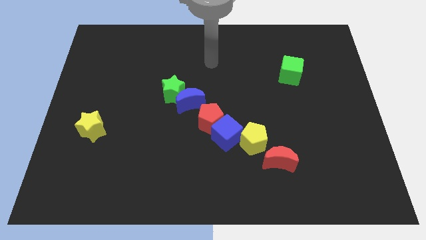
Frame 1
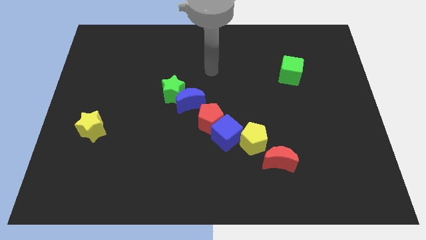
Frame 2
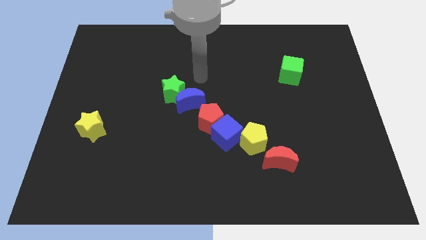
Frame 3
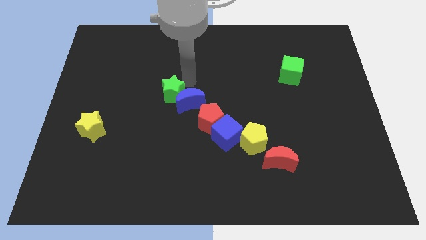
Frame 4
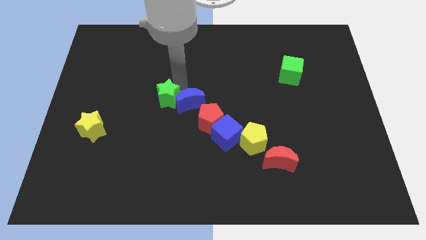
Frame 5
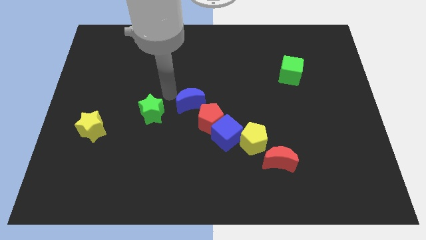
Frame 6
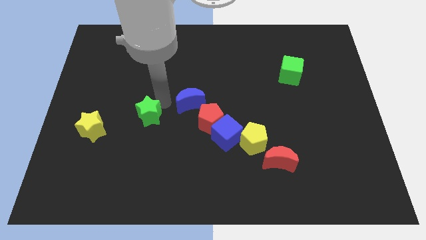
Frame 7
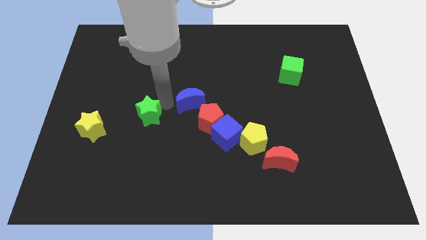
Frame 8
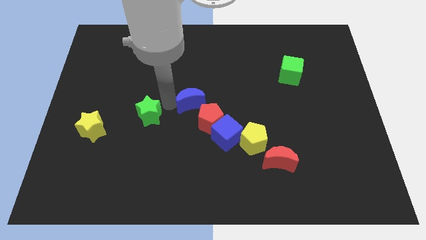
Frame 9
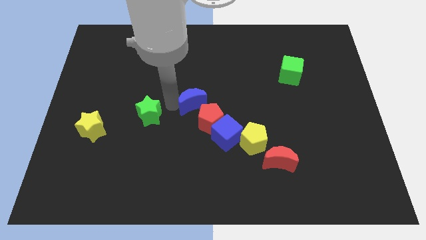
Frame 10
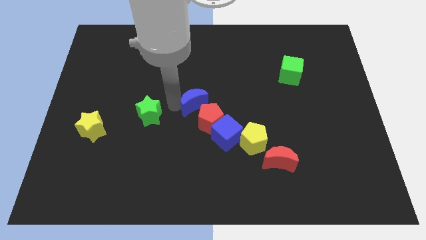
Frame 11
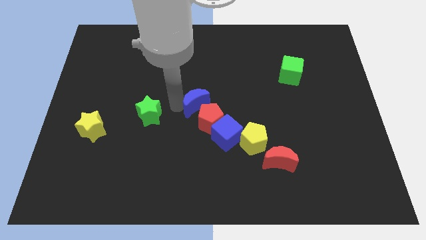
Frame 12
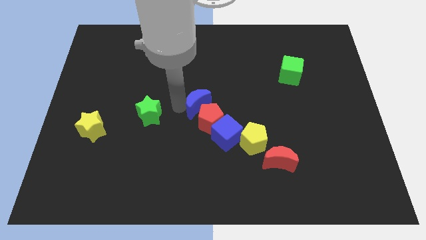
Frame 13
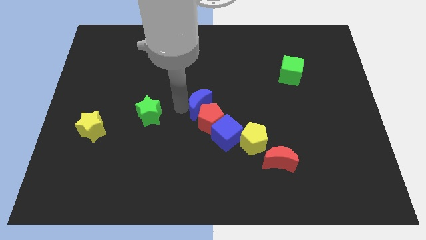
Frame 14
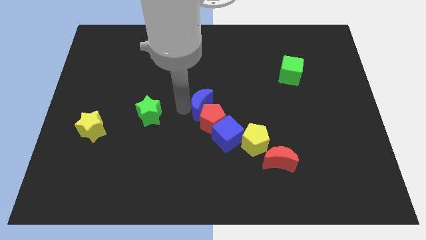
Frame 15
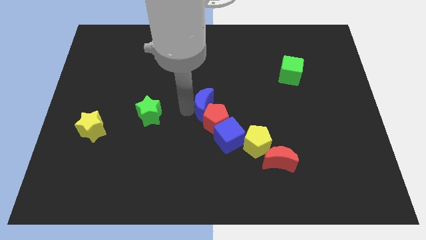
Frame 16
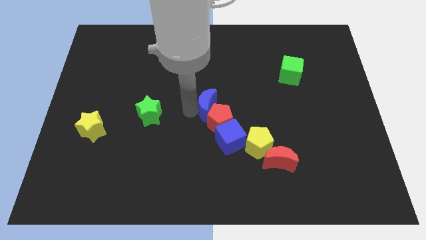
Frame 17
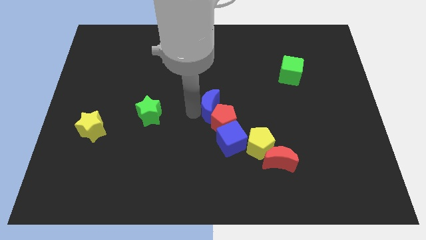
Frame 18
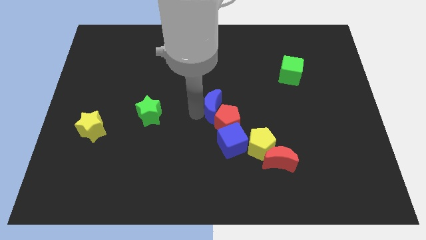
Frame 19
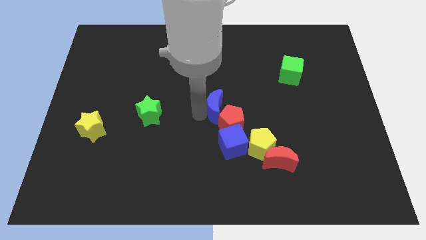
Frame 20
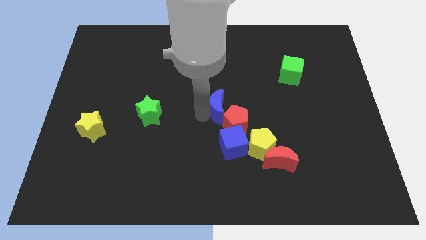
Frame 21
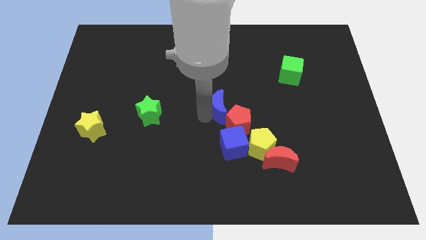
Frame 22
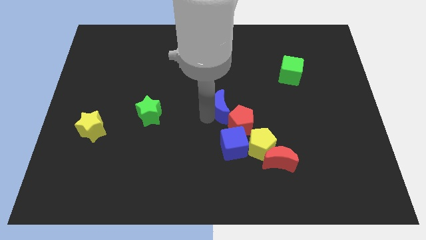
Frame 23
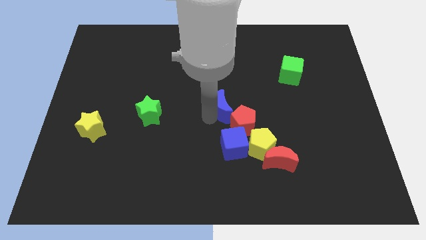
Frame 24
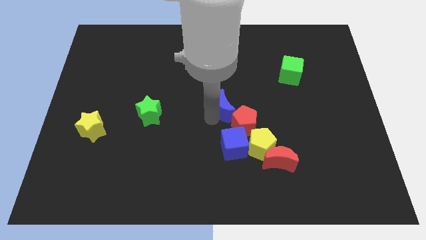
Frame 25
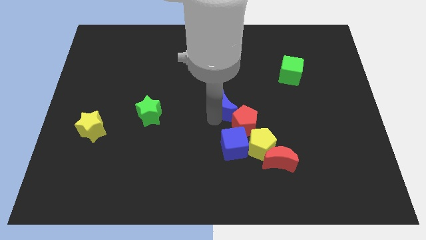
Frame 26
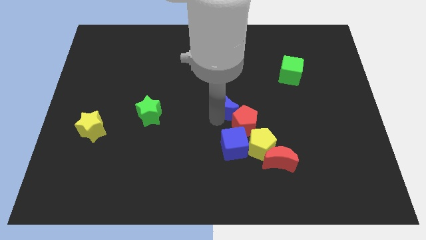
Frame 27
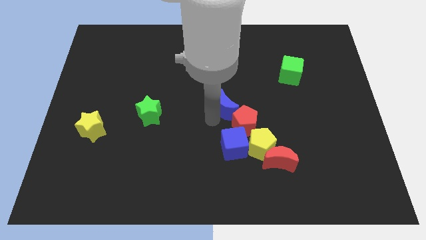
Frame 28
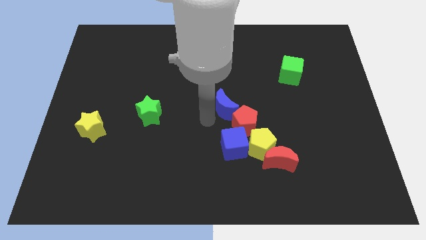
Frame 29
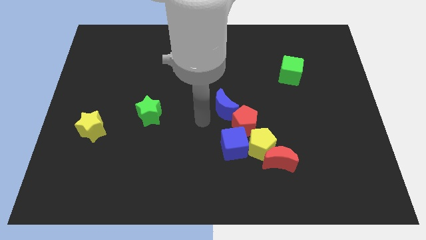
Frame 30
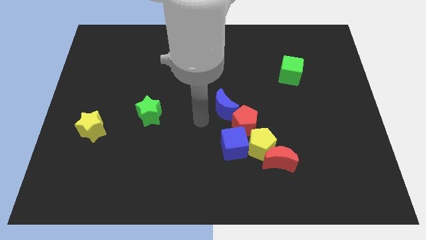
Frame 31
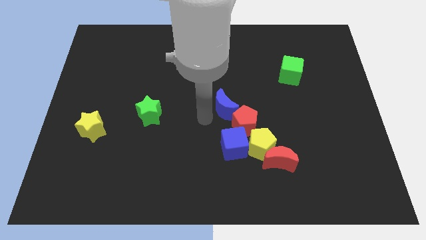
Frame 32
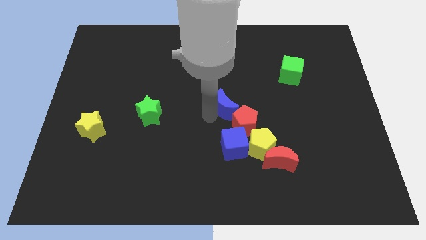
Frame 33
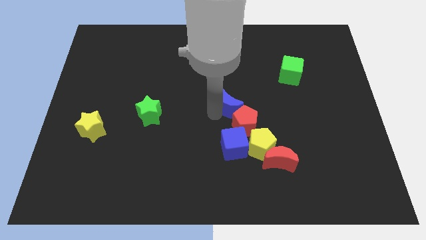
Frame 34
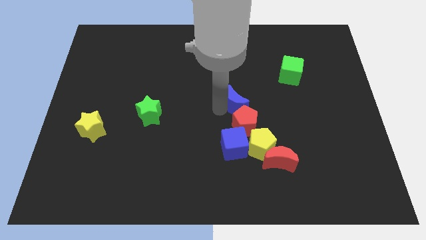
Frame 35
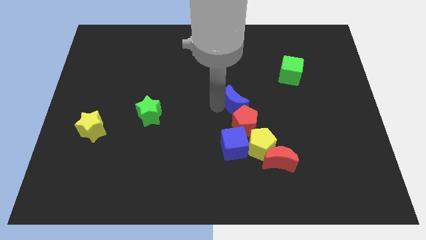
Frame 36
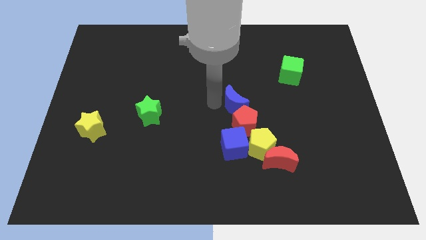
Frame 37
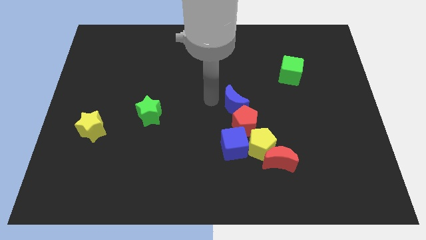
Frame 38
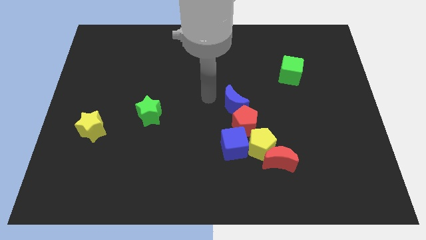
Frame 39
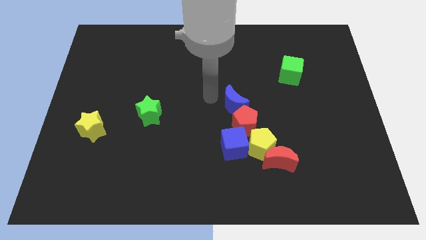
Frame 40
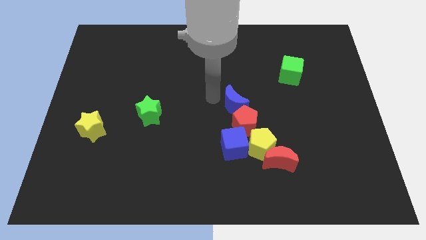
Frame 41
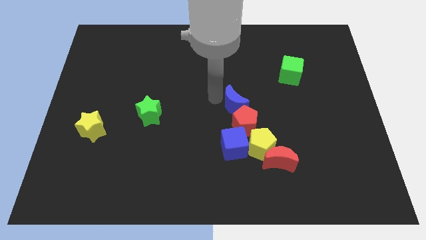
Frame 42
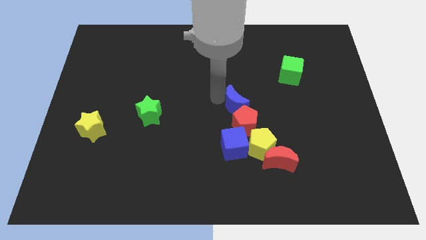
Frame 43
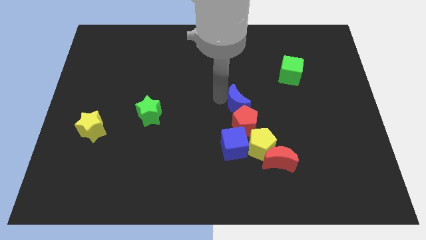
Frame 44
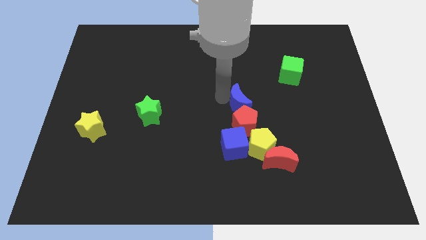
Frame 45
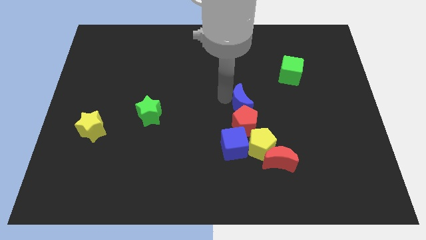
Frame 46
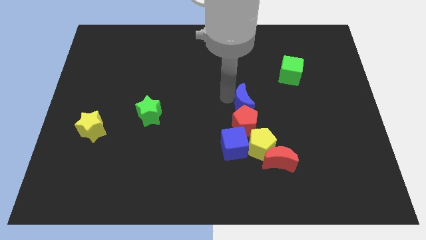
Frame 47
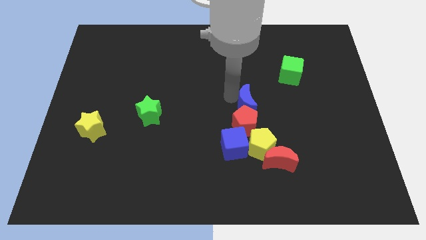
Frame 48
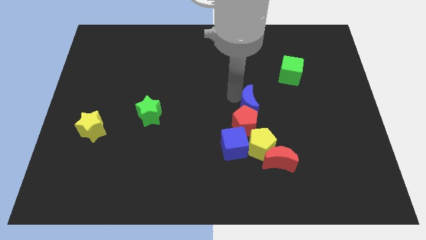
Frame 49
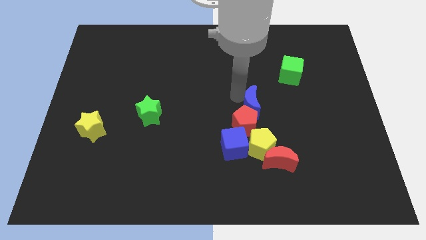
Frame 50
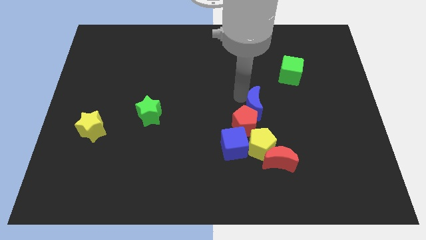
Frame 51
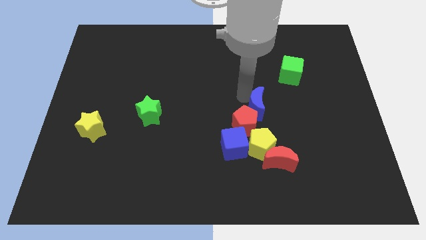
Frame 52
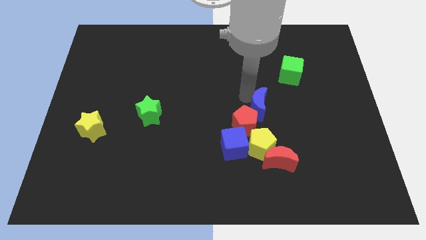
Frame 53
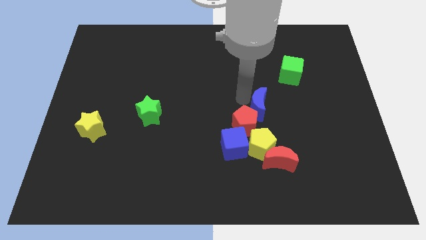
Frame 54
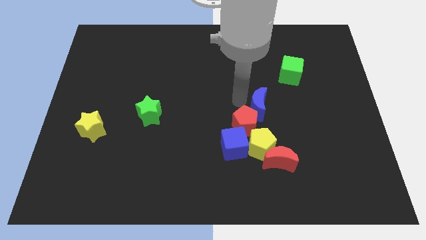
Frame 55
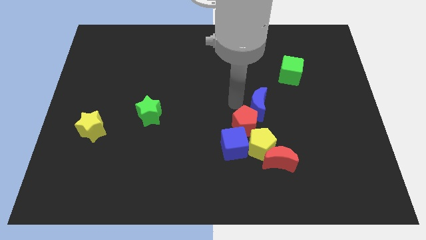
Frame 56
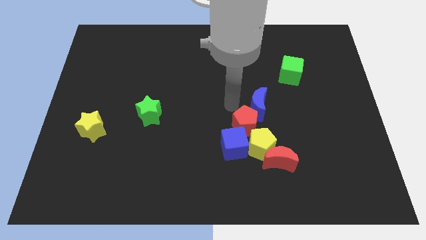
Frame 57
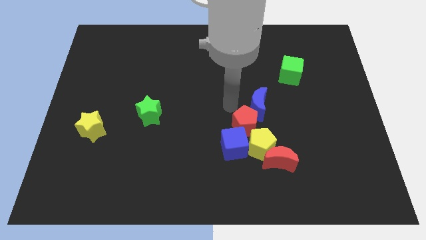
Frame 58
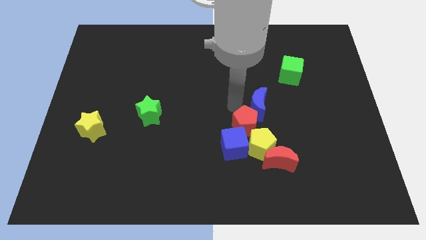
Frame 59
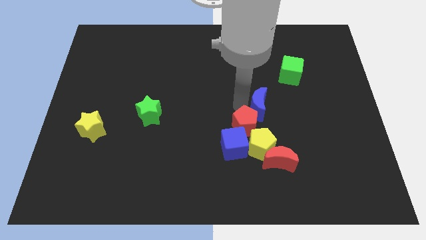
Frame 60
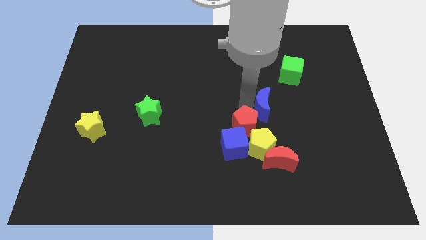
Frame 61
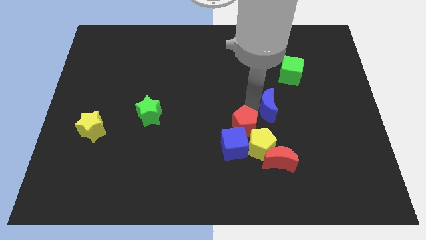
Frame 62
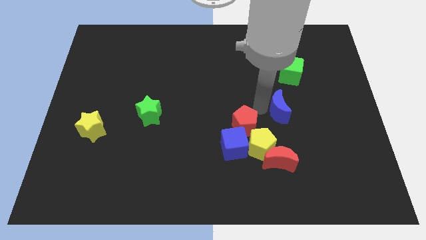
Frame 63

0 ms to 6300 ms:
move the blue moon to the right

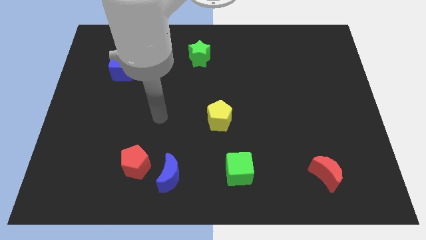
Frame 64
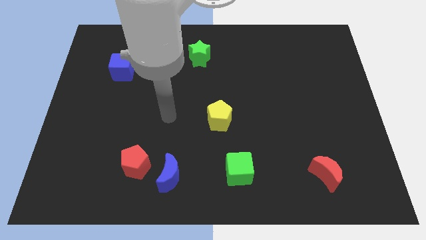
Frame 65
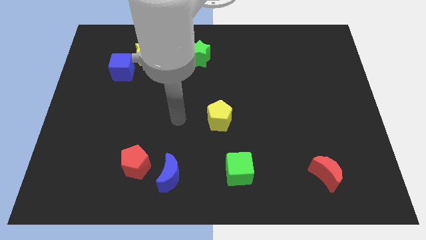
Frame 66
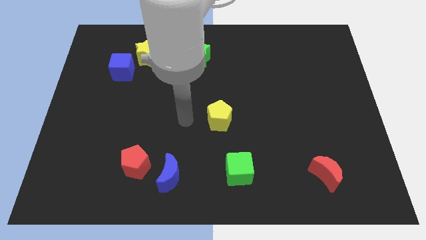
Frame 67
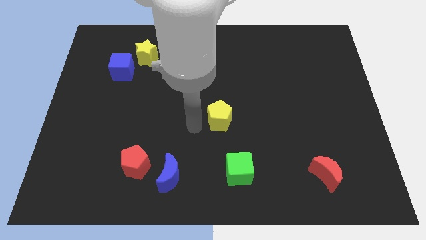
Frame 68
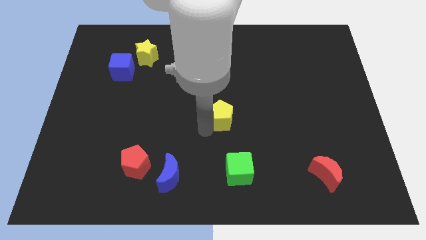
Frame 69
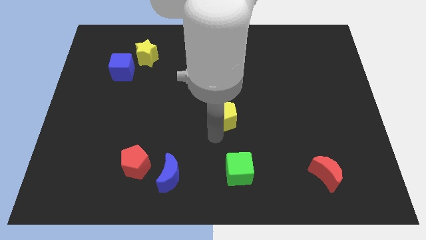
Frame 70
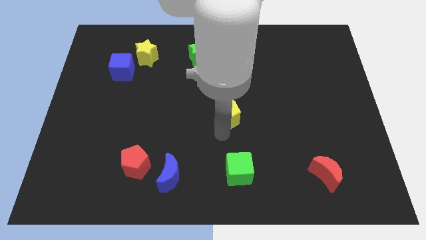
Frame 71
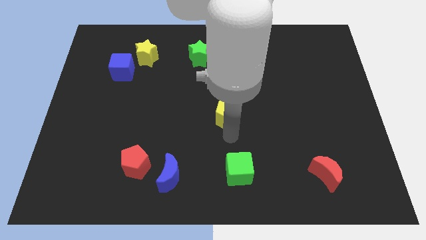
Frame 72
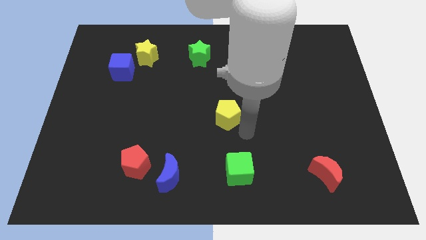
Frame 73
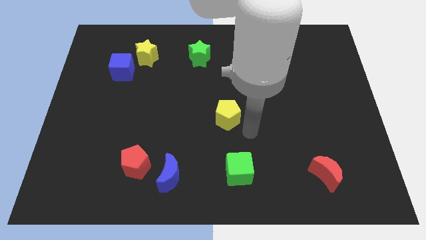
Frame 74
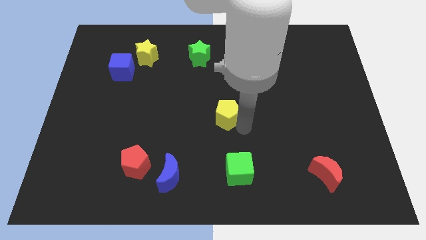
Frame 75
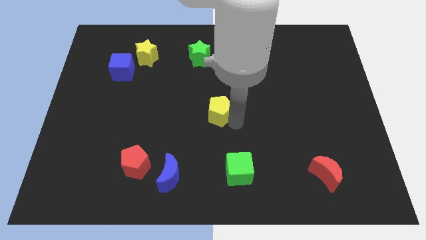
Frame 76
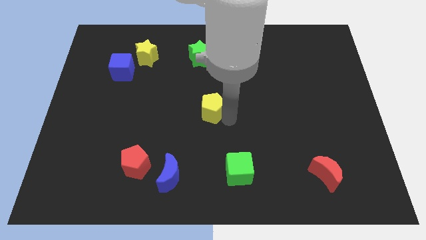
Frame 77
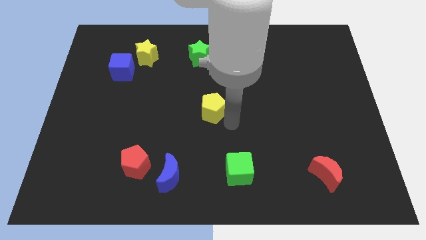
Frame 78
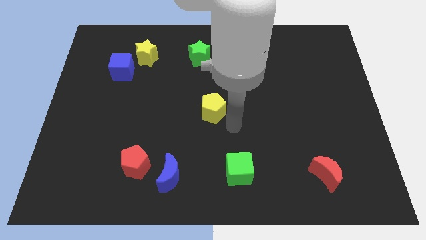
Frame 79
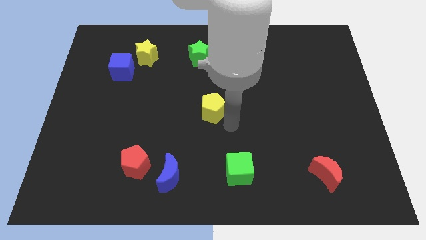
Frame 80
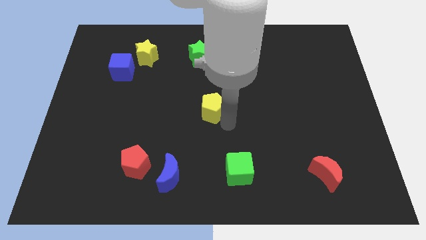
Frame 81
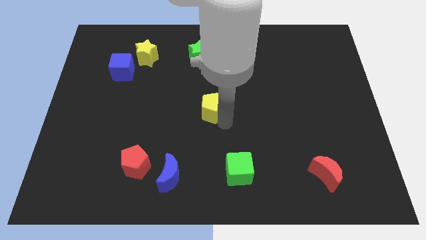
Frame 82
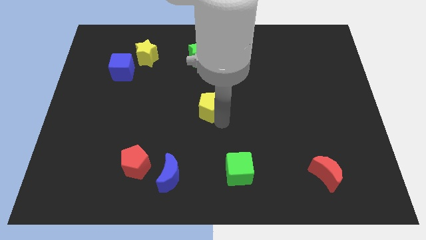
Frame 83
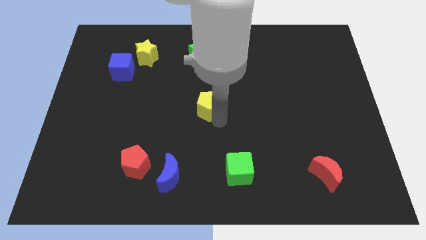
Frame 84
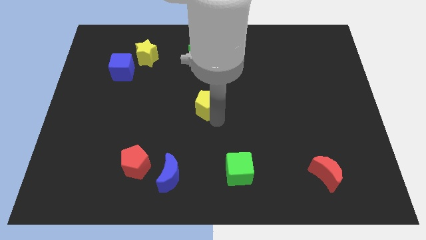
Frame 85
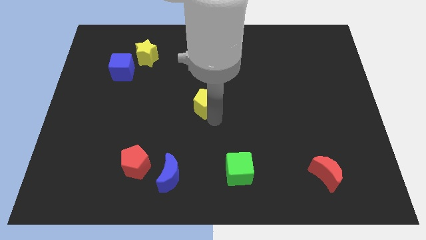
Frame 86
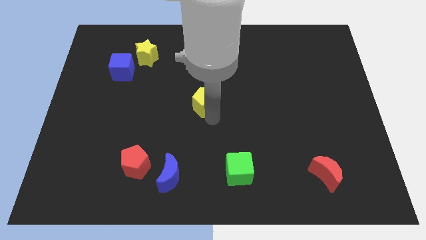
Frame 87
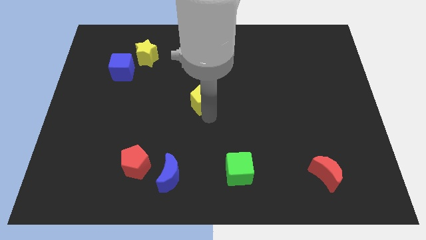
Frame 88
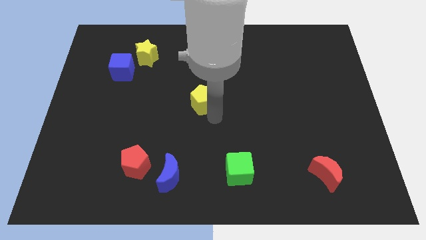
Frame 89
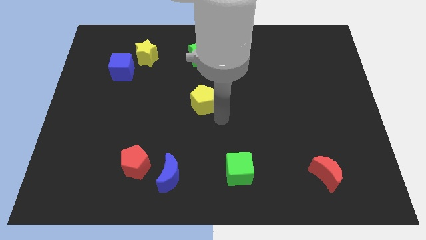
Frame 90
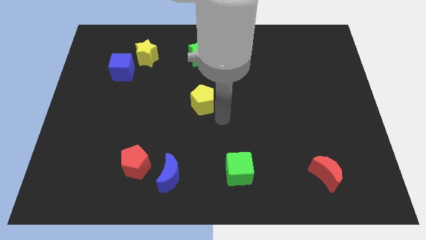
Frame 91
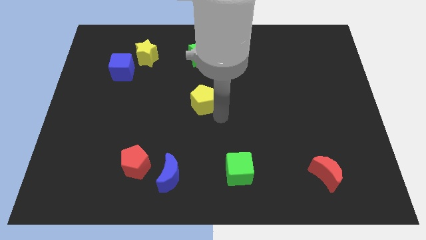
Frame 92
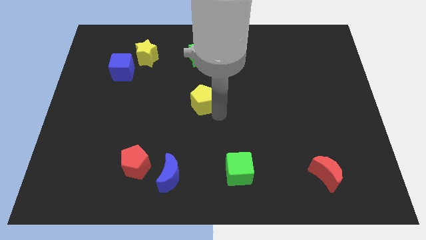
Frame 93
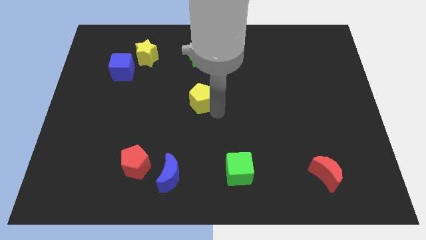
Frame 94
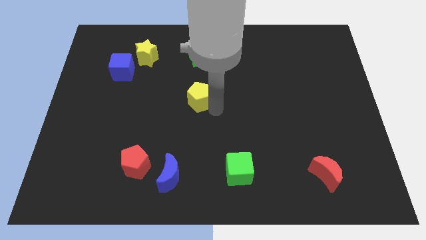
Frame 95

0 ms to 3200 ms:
slightly slide the yellow pentagon upwards and then to the left
